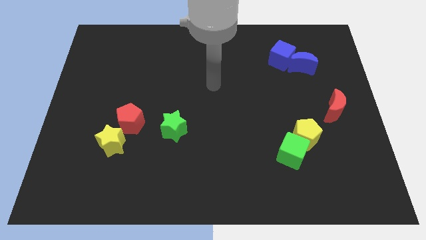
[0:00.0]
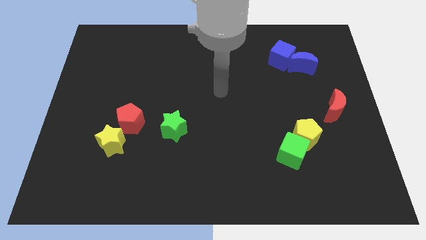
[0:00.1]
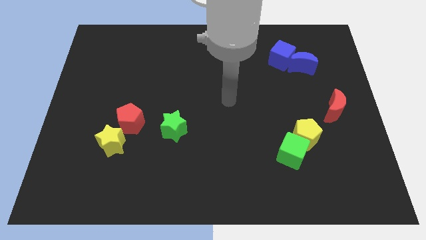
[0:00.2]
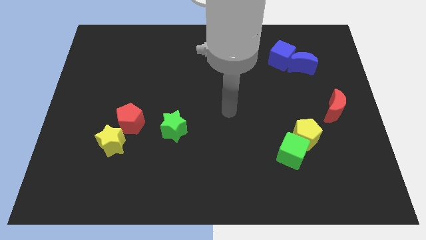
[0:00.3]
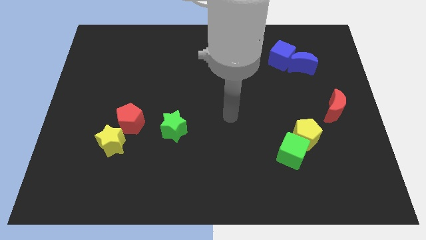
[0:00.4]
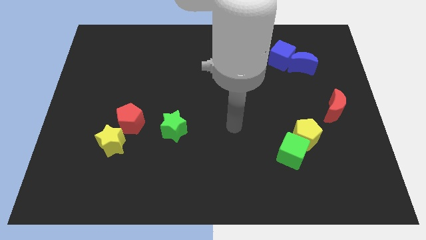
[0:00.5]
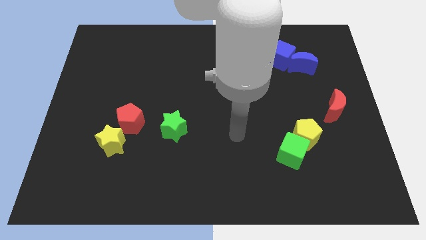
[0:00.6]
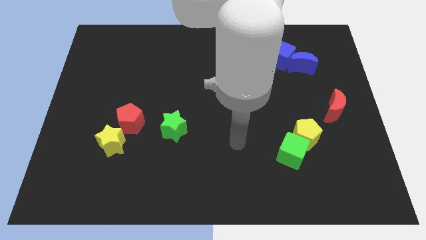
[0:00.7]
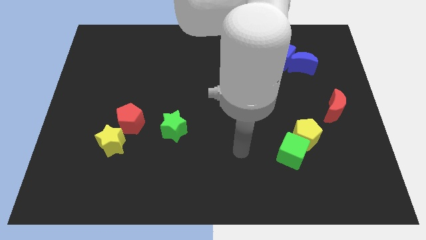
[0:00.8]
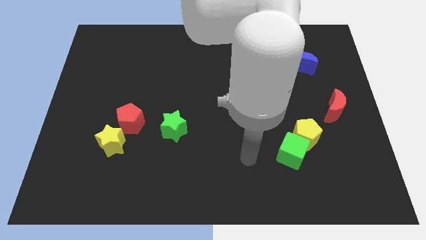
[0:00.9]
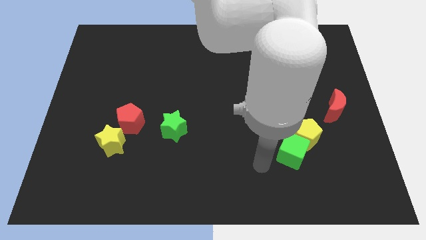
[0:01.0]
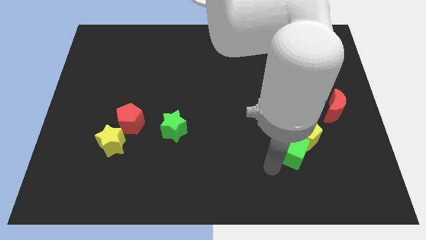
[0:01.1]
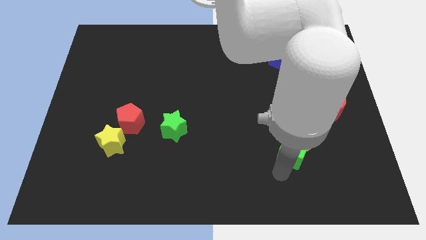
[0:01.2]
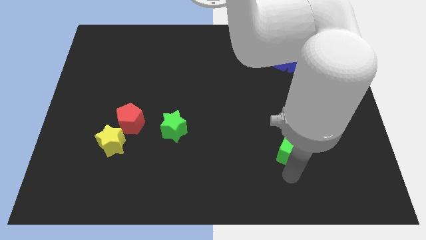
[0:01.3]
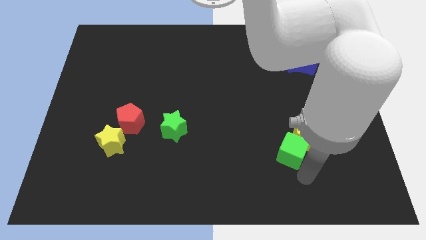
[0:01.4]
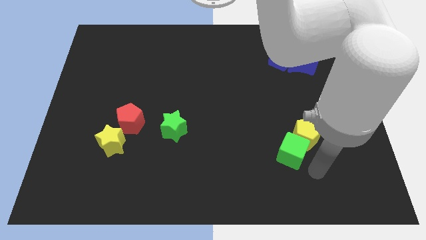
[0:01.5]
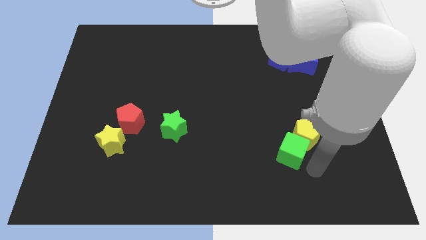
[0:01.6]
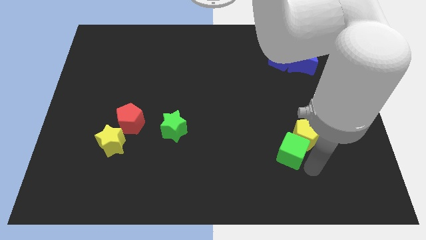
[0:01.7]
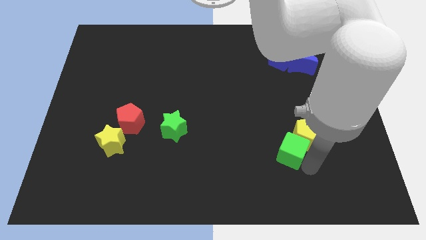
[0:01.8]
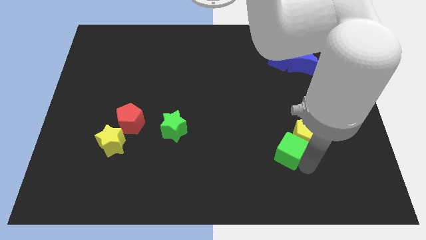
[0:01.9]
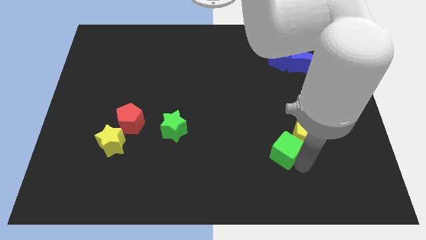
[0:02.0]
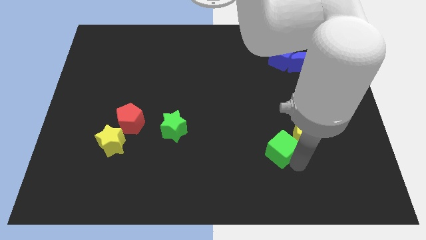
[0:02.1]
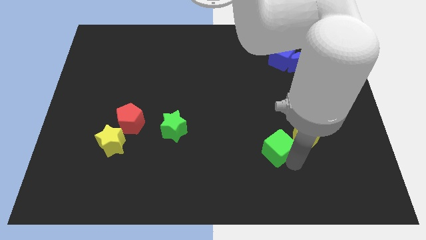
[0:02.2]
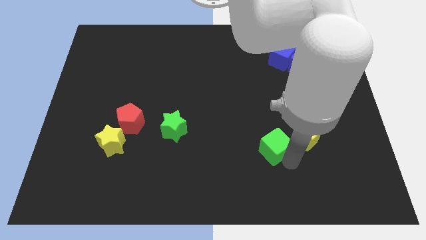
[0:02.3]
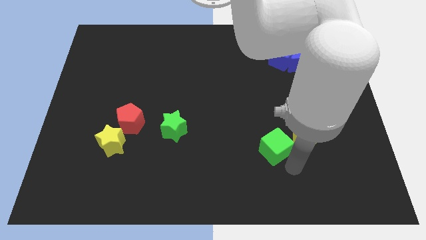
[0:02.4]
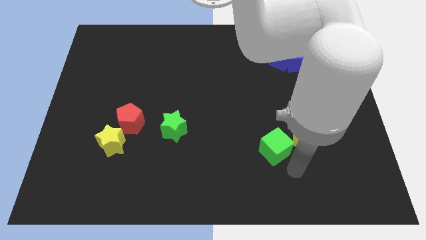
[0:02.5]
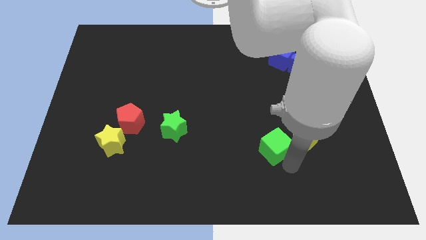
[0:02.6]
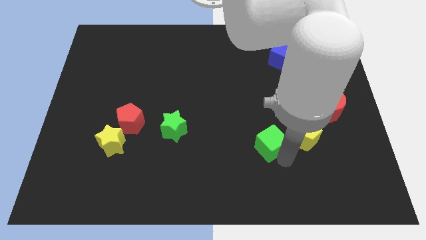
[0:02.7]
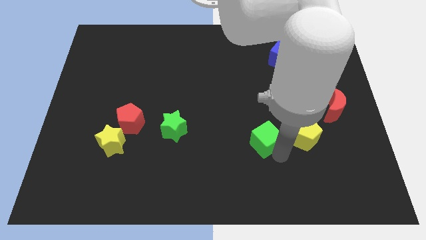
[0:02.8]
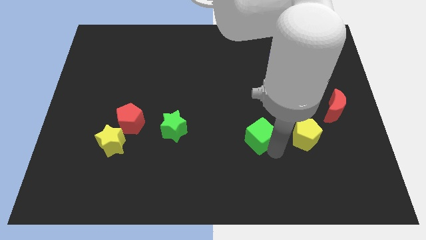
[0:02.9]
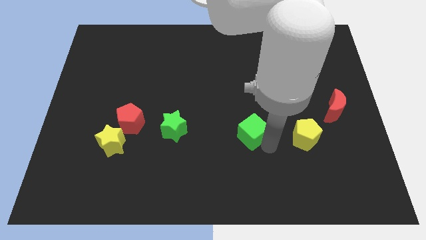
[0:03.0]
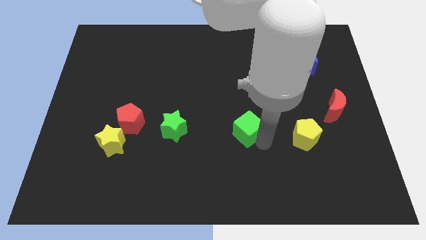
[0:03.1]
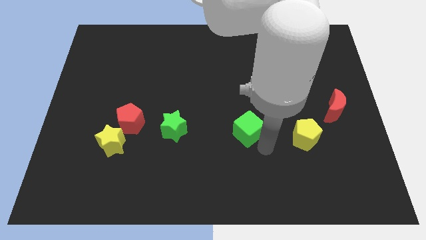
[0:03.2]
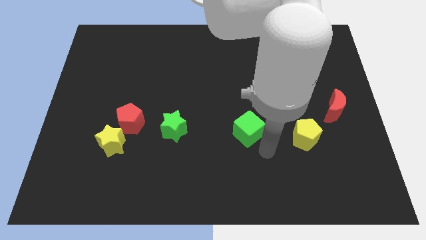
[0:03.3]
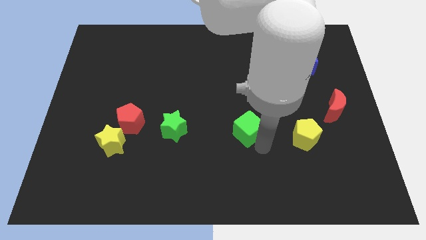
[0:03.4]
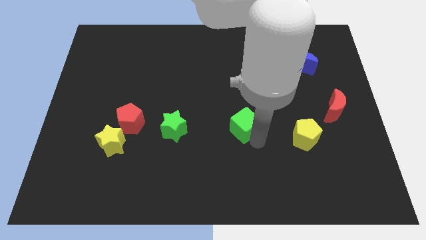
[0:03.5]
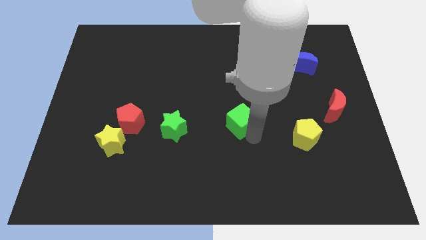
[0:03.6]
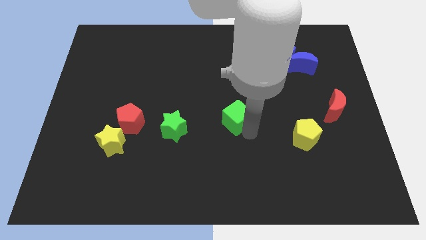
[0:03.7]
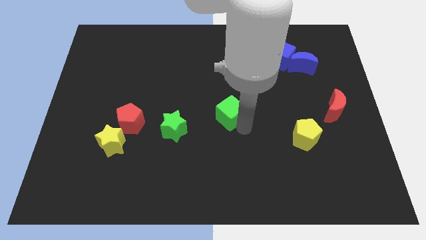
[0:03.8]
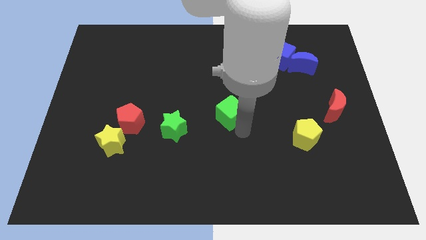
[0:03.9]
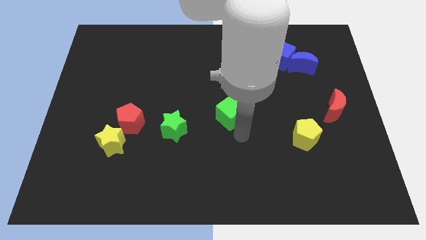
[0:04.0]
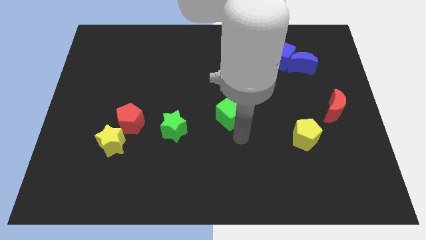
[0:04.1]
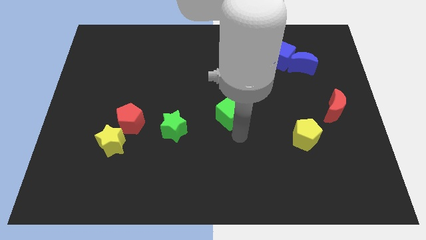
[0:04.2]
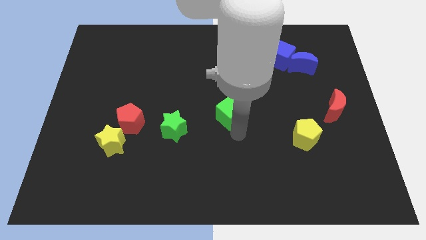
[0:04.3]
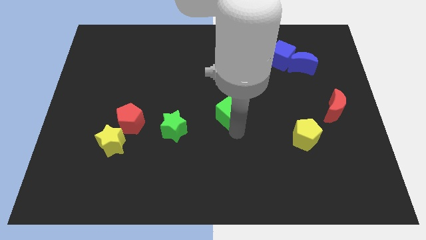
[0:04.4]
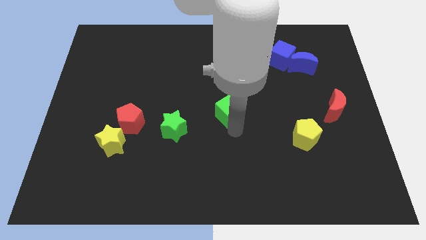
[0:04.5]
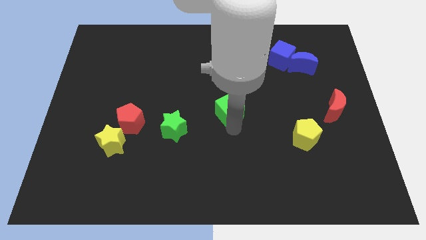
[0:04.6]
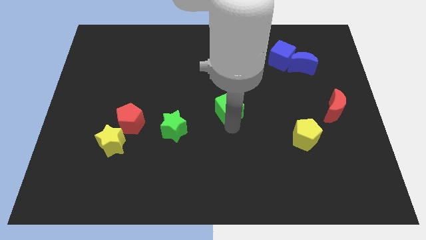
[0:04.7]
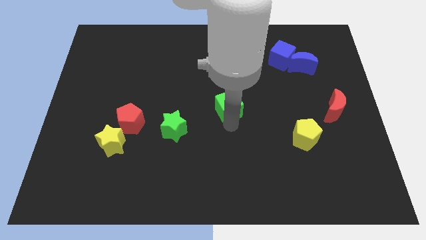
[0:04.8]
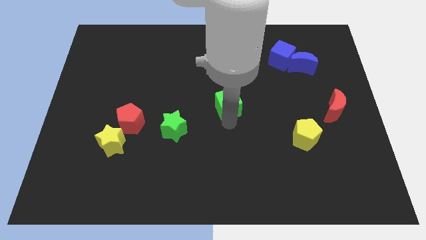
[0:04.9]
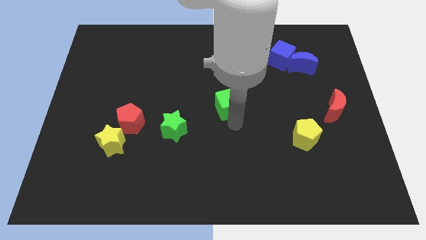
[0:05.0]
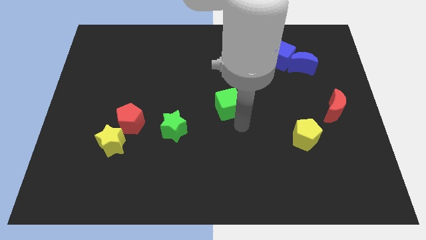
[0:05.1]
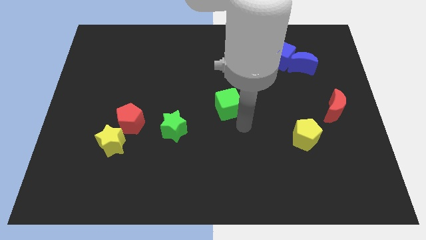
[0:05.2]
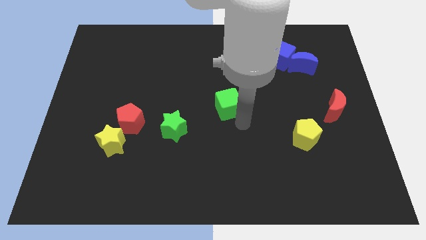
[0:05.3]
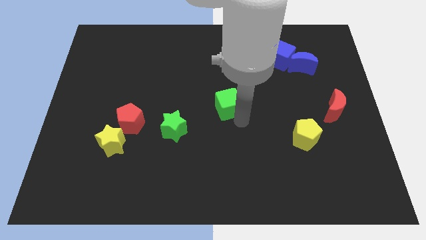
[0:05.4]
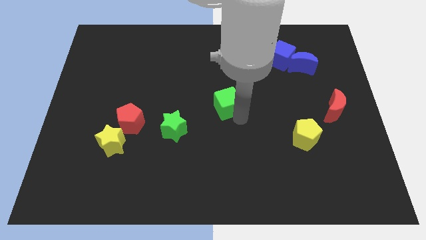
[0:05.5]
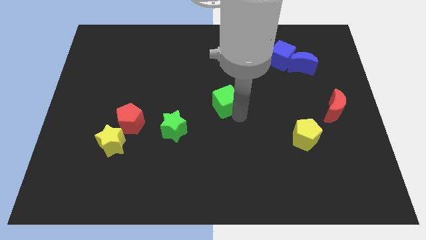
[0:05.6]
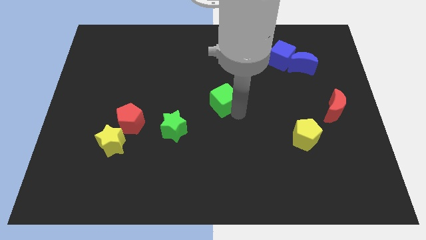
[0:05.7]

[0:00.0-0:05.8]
push the green cube up and left

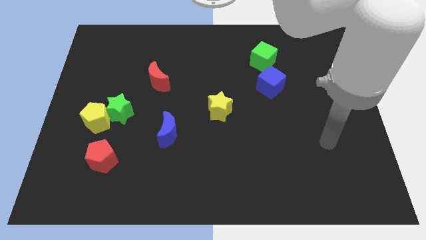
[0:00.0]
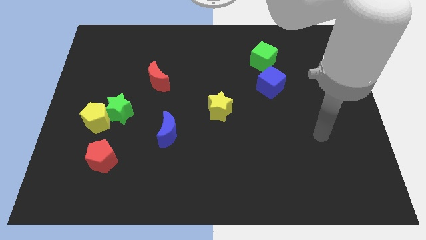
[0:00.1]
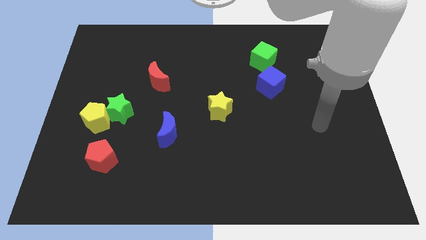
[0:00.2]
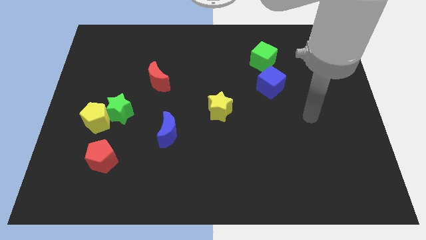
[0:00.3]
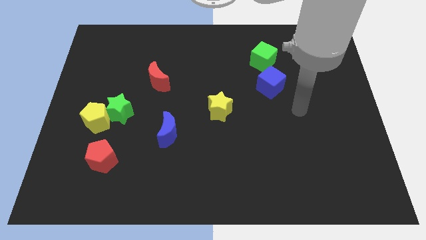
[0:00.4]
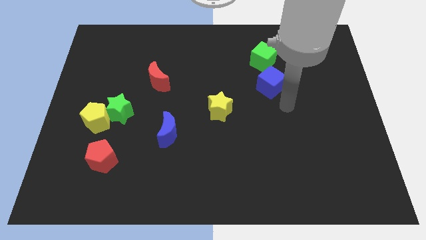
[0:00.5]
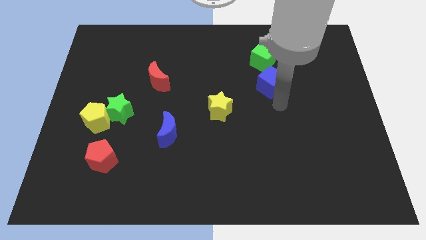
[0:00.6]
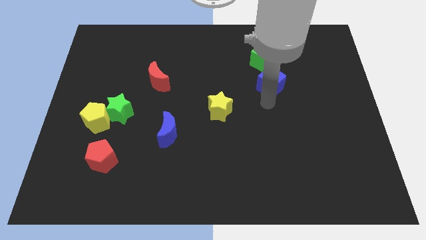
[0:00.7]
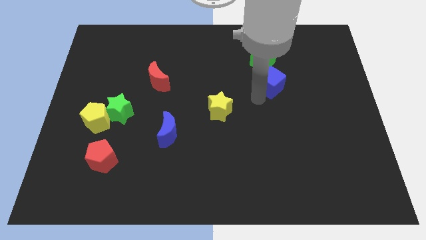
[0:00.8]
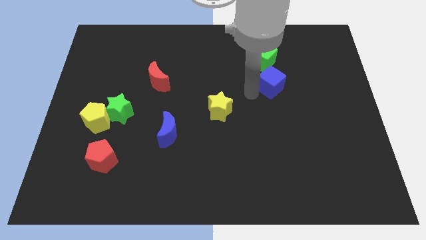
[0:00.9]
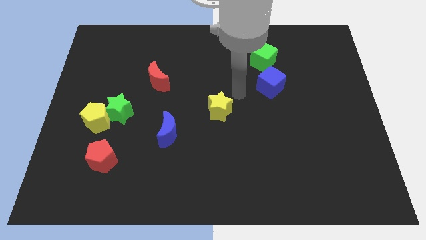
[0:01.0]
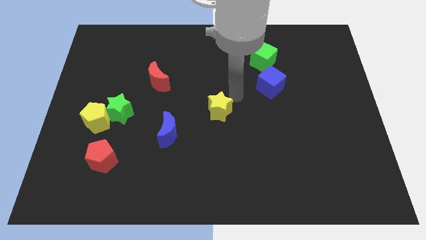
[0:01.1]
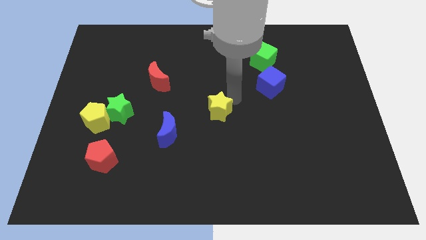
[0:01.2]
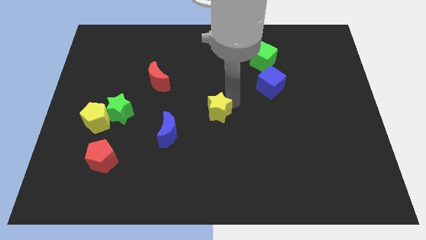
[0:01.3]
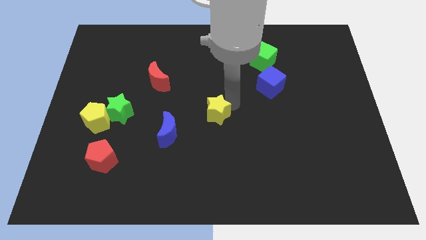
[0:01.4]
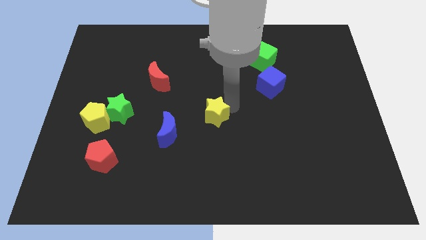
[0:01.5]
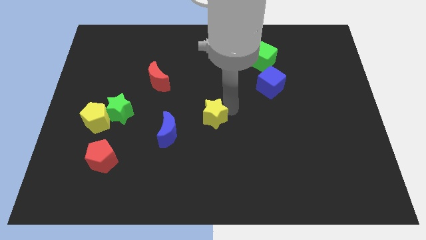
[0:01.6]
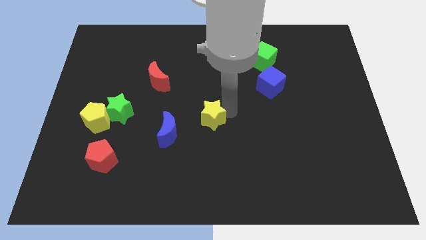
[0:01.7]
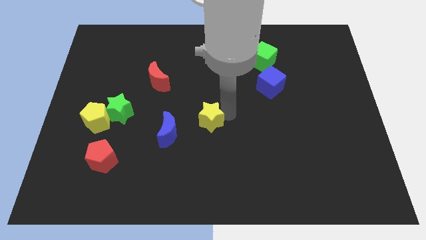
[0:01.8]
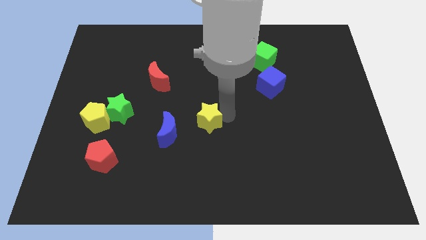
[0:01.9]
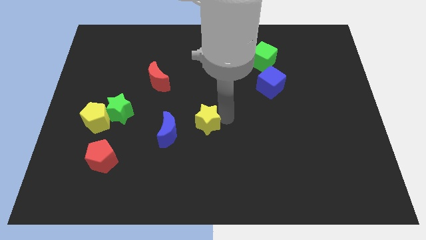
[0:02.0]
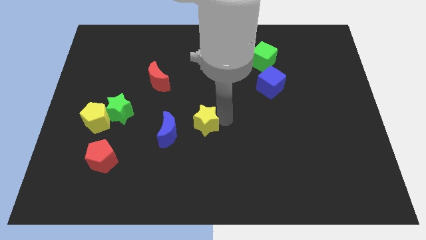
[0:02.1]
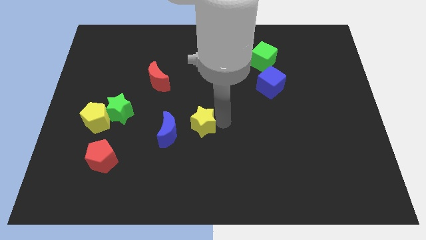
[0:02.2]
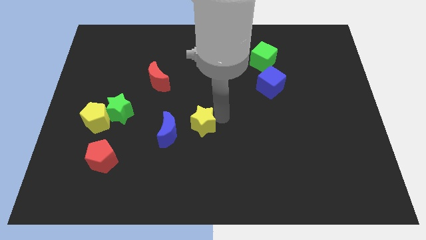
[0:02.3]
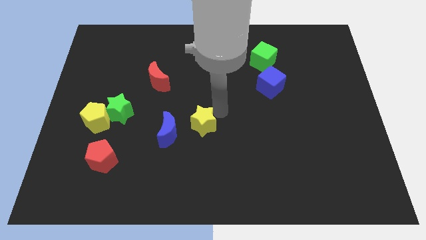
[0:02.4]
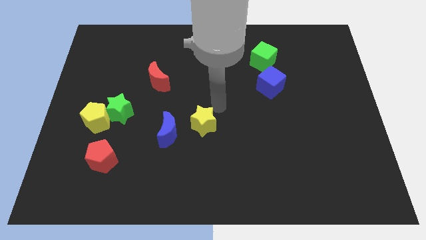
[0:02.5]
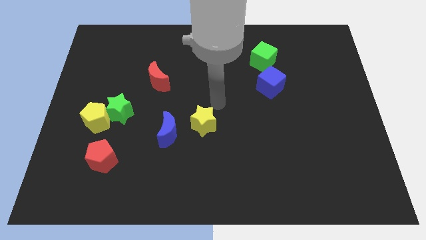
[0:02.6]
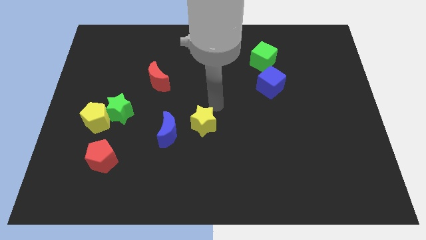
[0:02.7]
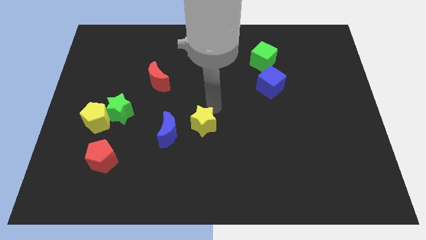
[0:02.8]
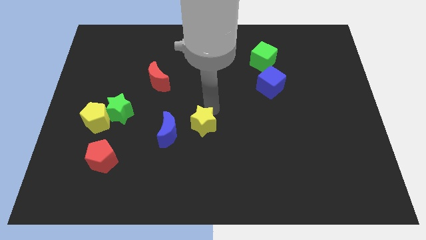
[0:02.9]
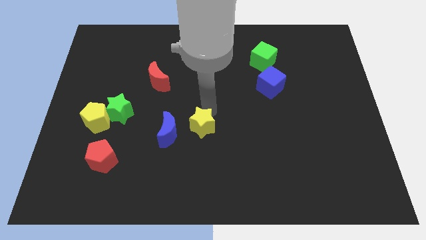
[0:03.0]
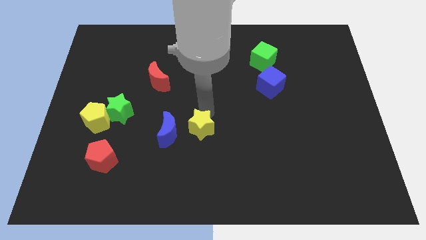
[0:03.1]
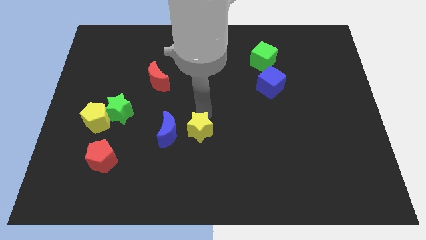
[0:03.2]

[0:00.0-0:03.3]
slightly move the yellow star down and to the left
